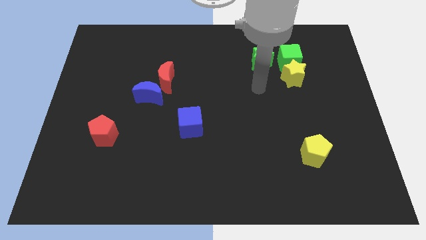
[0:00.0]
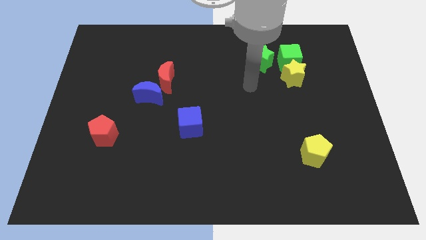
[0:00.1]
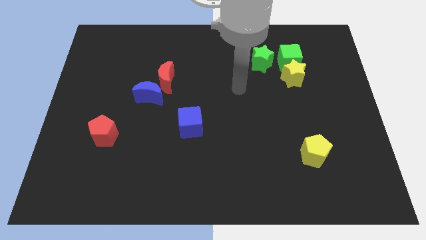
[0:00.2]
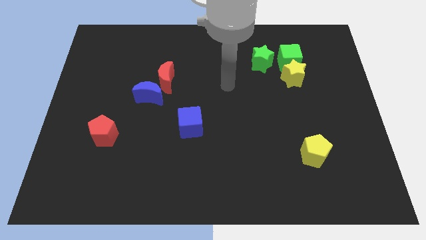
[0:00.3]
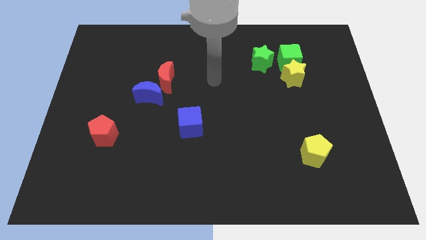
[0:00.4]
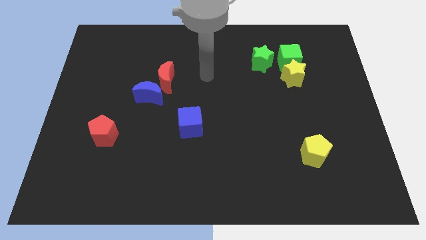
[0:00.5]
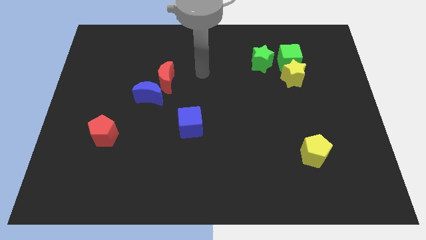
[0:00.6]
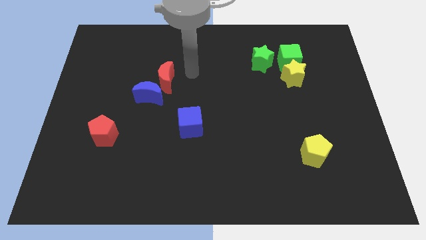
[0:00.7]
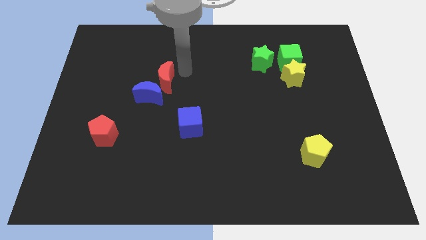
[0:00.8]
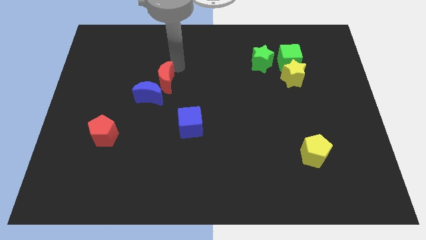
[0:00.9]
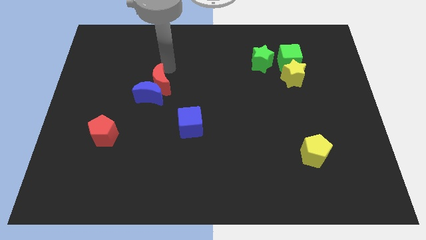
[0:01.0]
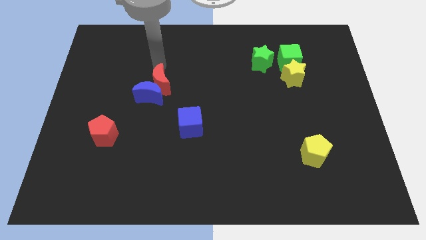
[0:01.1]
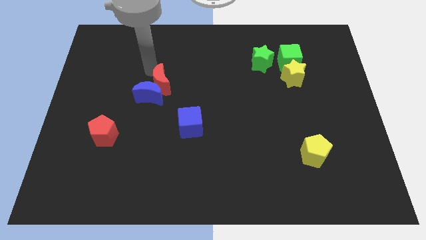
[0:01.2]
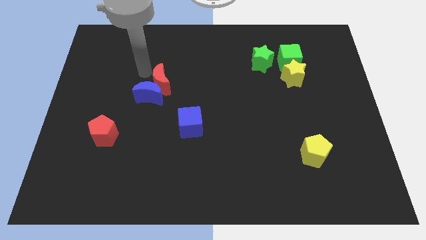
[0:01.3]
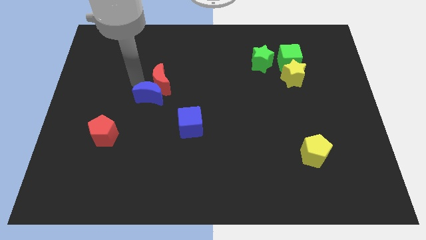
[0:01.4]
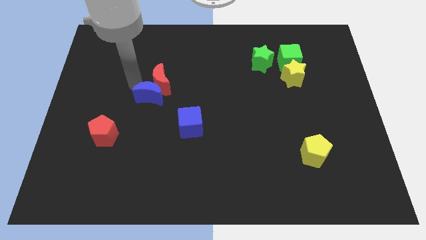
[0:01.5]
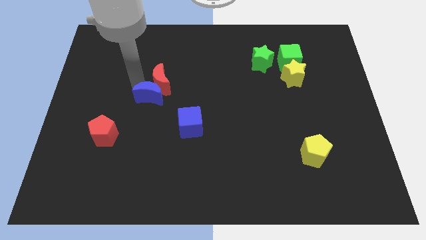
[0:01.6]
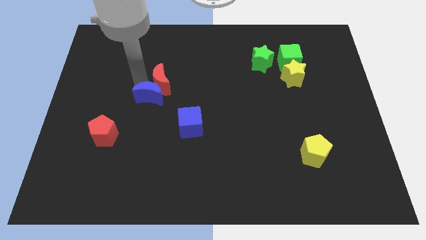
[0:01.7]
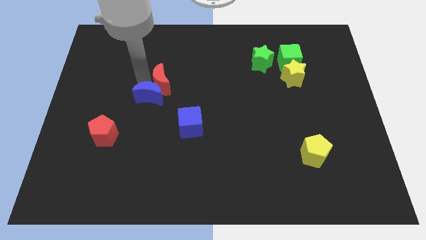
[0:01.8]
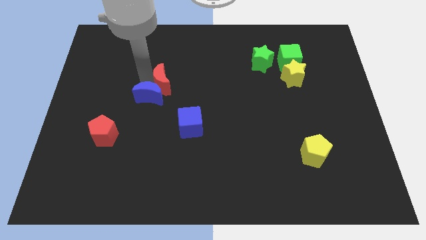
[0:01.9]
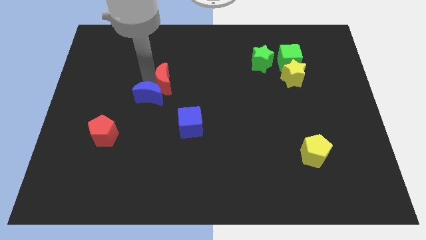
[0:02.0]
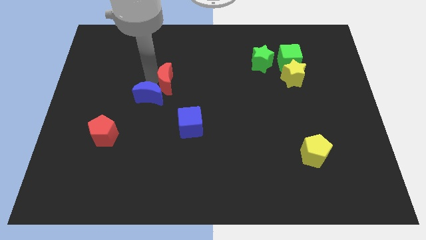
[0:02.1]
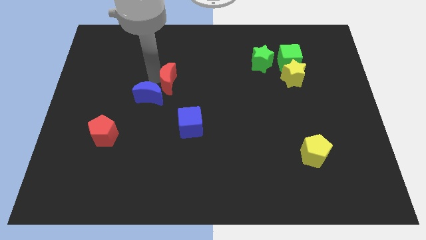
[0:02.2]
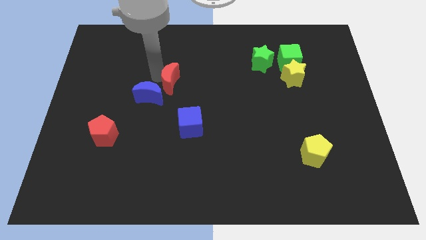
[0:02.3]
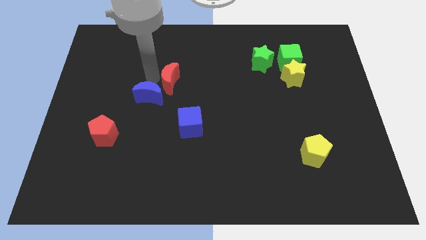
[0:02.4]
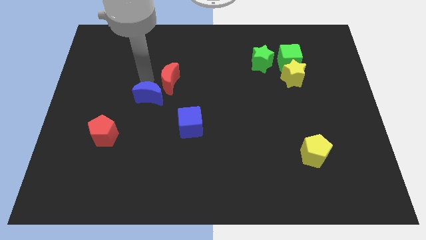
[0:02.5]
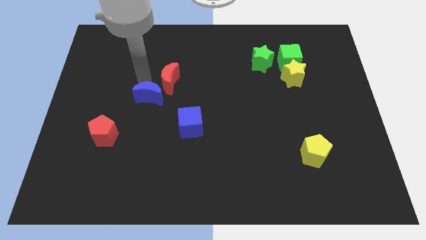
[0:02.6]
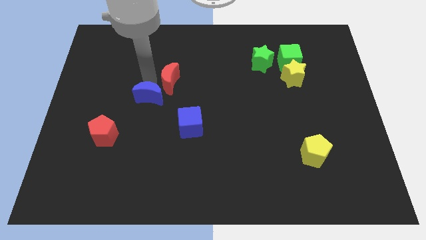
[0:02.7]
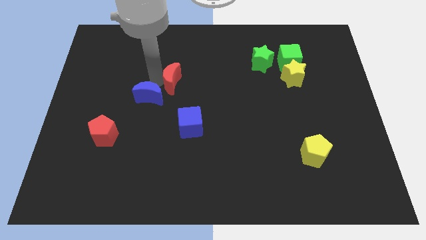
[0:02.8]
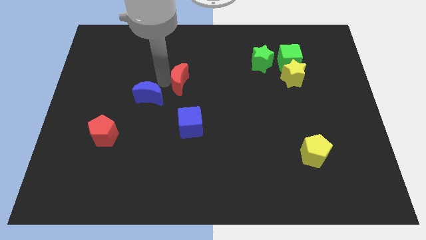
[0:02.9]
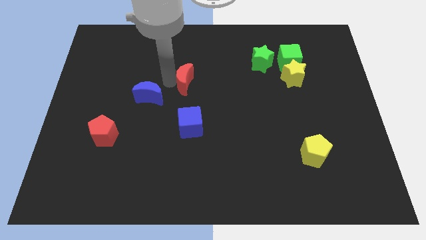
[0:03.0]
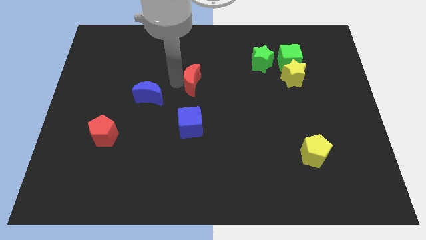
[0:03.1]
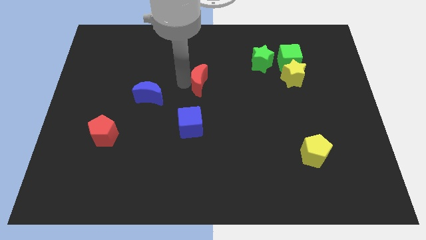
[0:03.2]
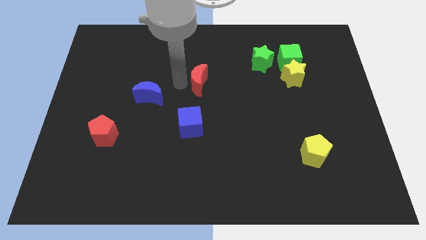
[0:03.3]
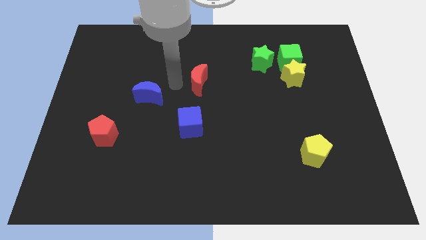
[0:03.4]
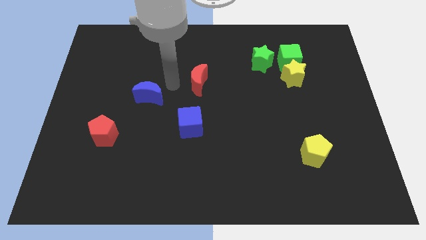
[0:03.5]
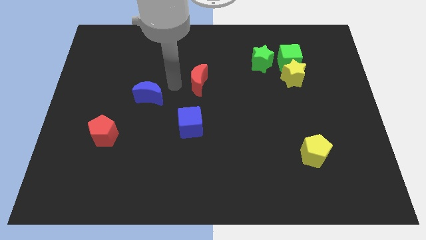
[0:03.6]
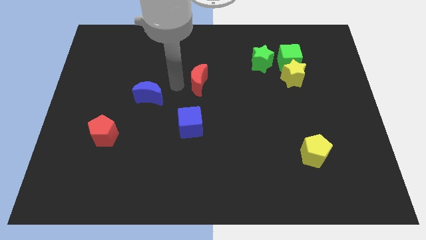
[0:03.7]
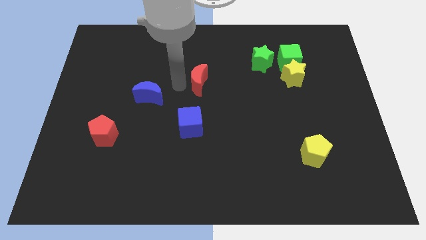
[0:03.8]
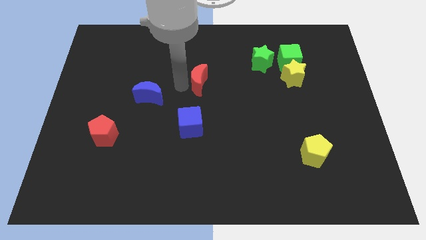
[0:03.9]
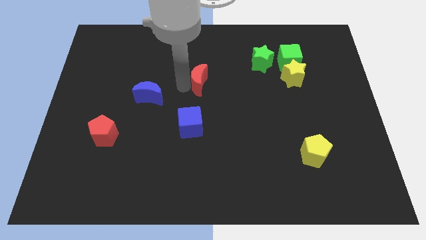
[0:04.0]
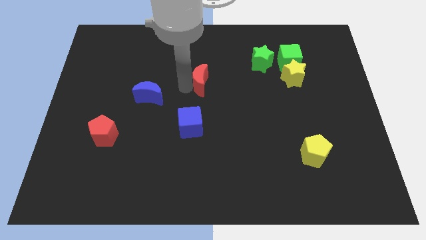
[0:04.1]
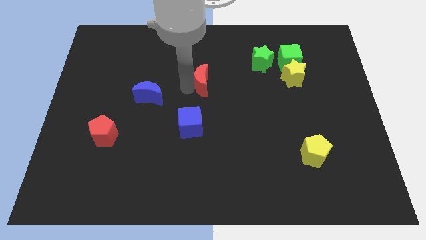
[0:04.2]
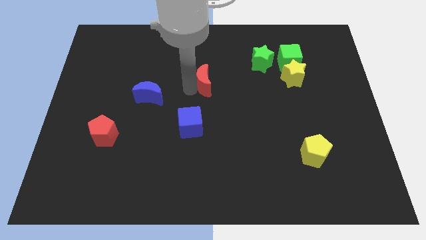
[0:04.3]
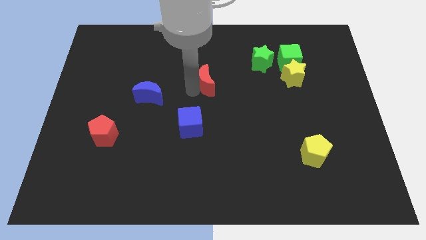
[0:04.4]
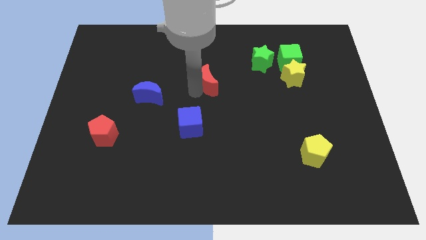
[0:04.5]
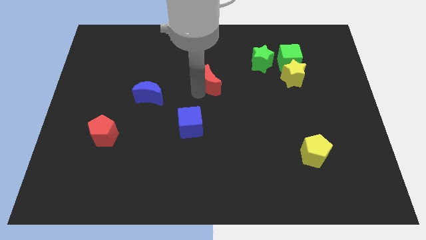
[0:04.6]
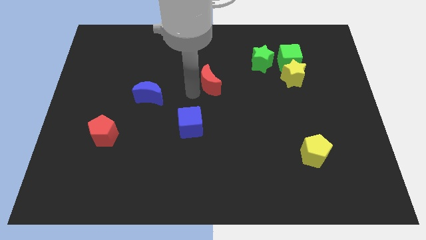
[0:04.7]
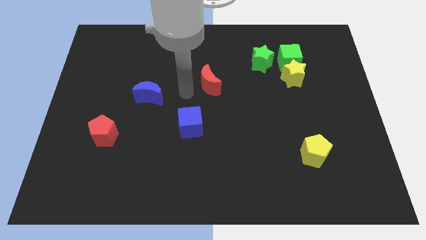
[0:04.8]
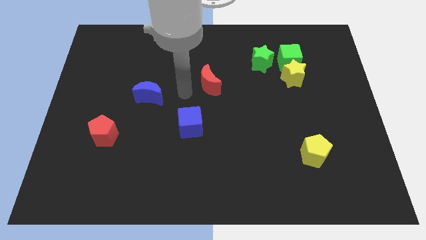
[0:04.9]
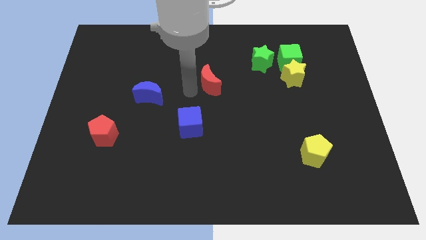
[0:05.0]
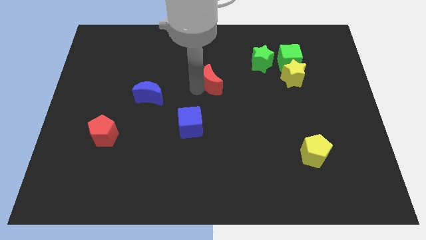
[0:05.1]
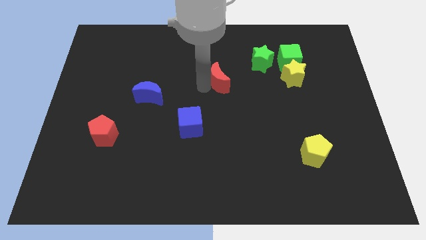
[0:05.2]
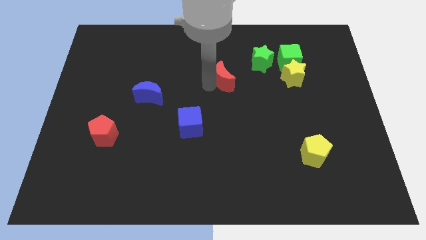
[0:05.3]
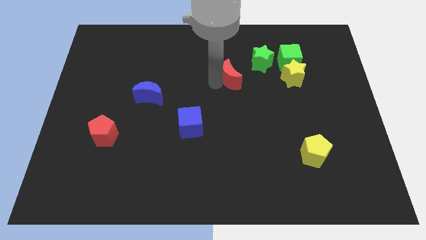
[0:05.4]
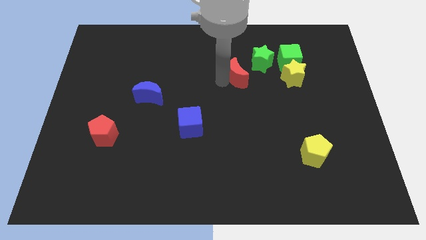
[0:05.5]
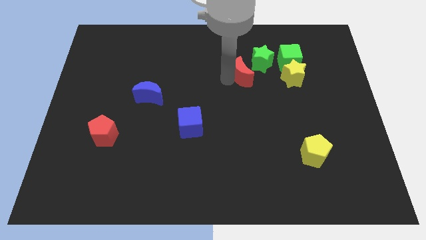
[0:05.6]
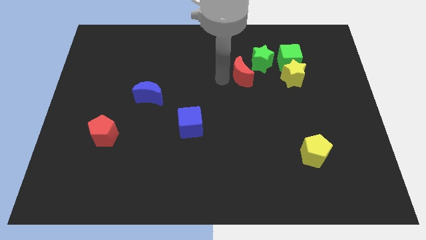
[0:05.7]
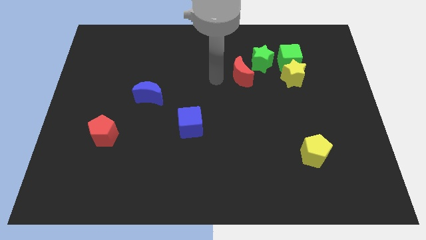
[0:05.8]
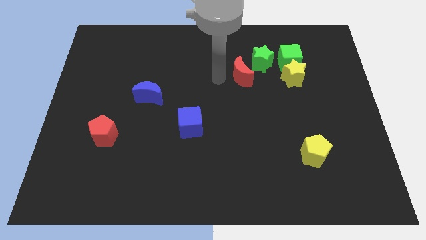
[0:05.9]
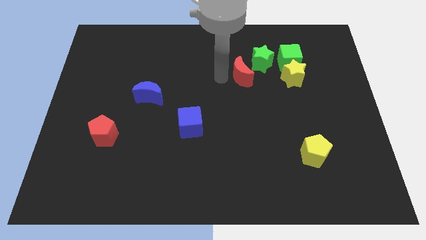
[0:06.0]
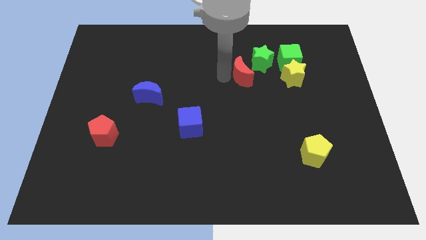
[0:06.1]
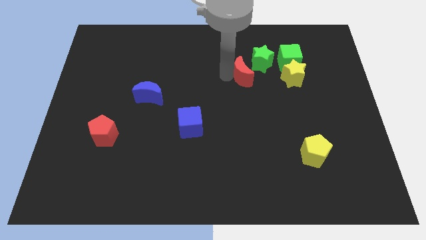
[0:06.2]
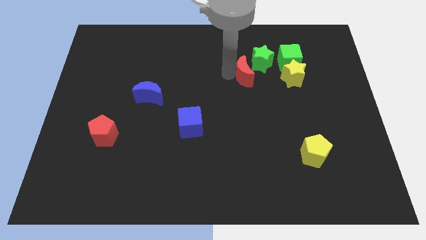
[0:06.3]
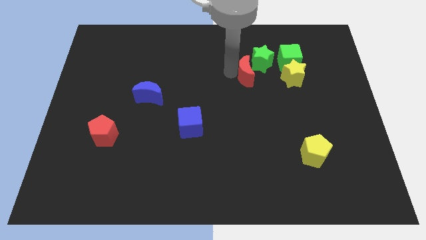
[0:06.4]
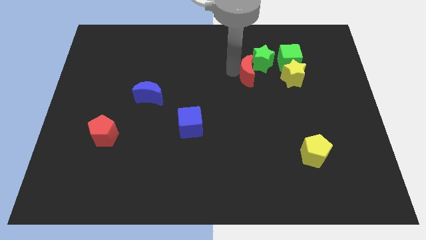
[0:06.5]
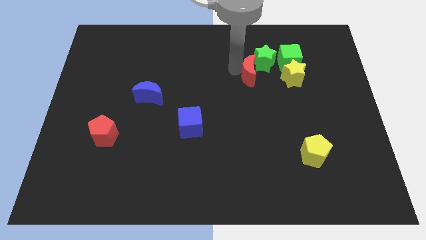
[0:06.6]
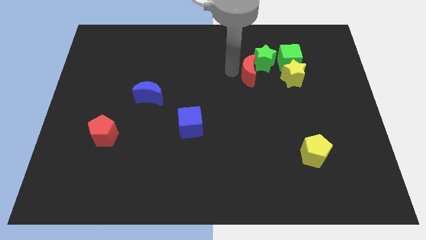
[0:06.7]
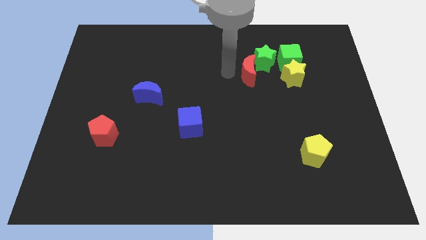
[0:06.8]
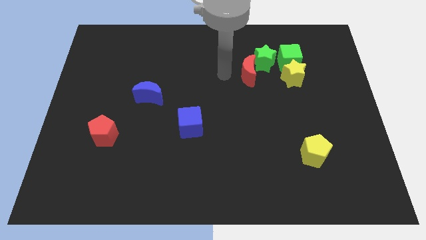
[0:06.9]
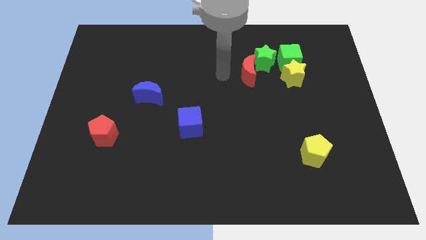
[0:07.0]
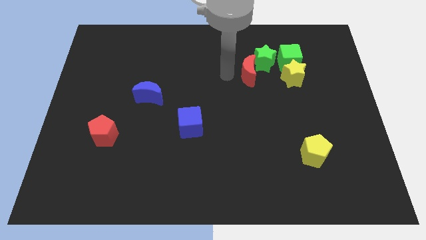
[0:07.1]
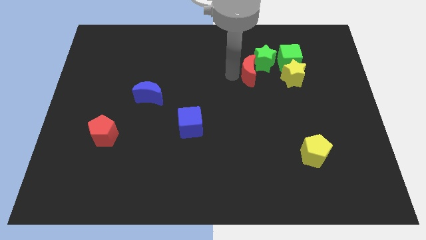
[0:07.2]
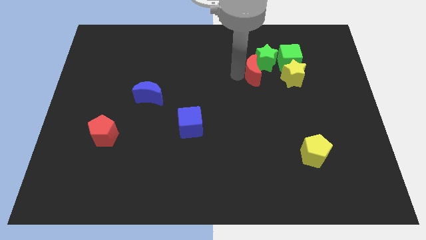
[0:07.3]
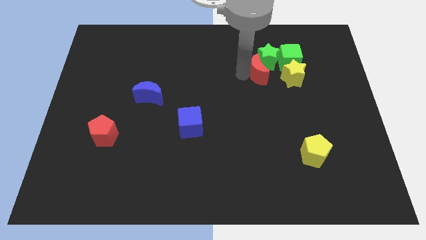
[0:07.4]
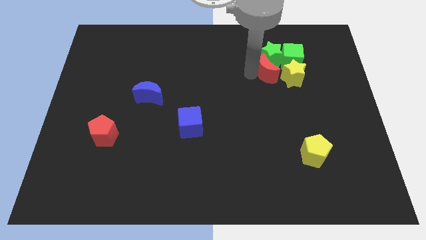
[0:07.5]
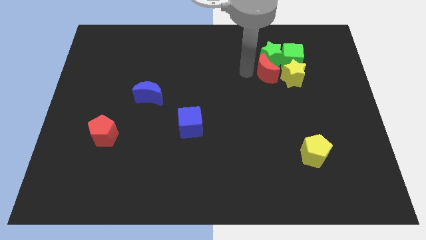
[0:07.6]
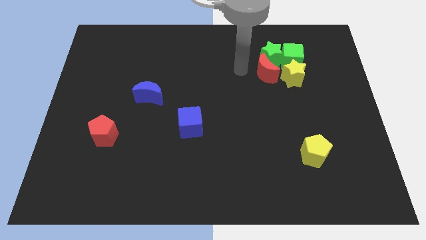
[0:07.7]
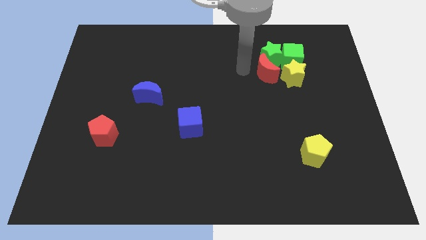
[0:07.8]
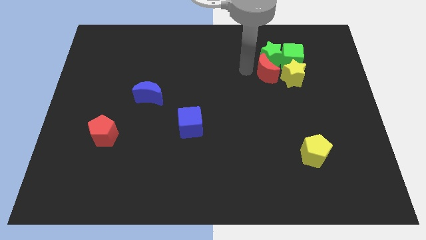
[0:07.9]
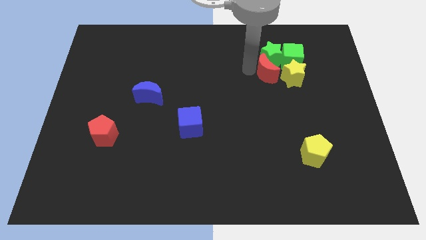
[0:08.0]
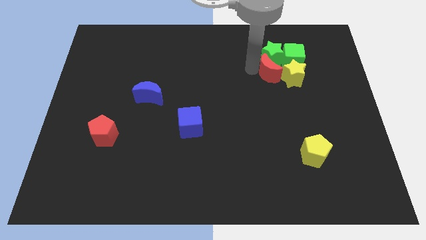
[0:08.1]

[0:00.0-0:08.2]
slide the red moon next to the yellow star
